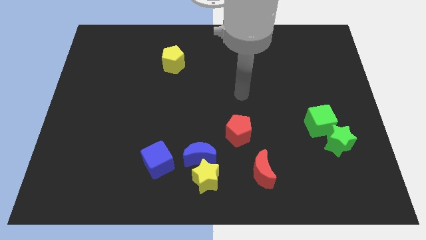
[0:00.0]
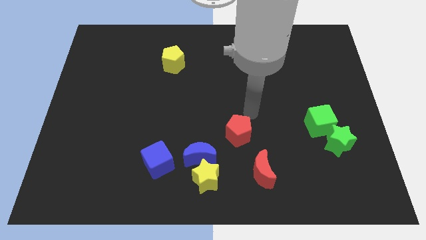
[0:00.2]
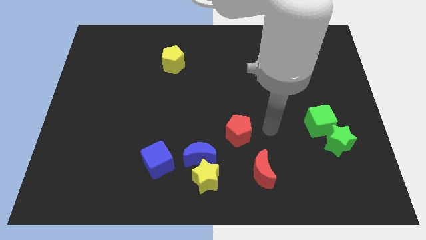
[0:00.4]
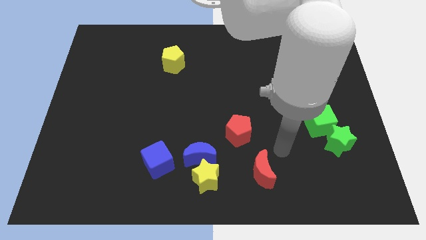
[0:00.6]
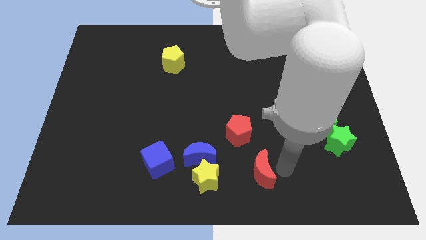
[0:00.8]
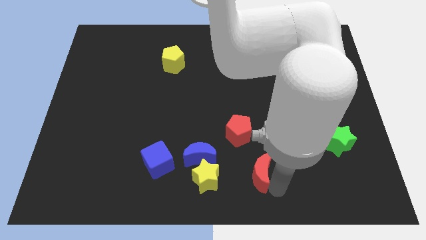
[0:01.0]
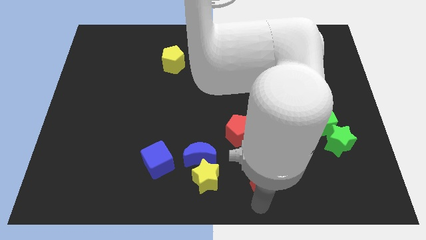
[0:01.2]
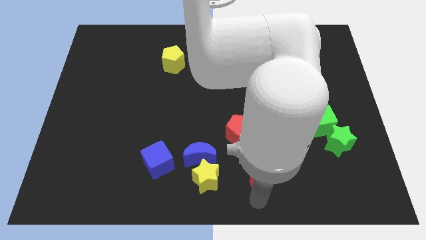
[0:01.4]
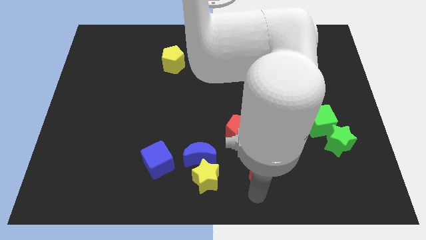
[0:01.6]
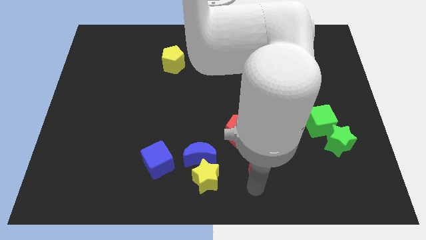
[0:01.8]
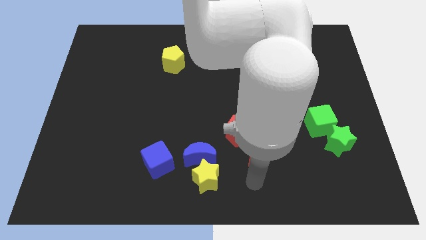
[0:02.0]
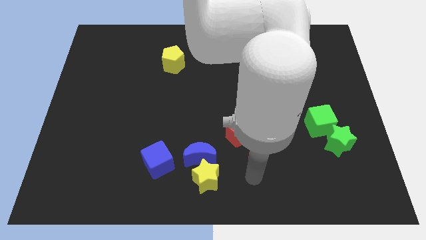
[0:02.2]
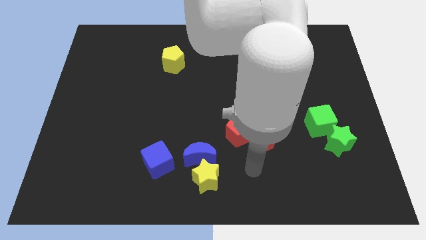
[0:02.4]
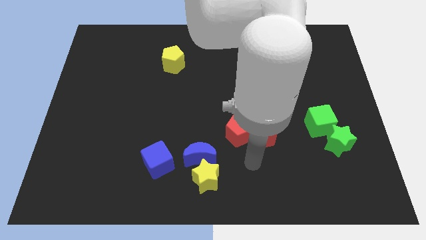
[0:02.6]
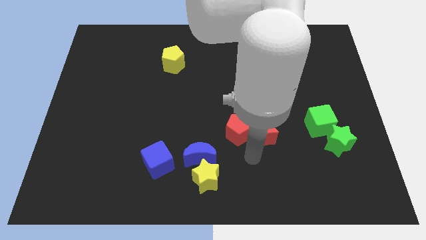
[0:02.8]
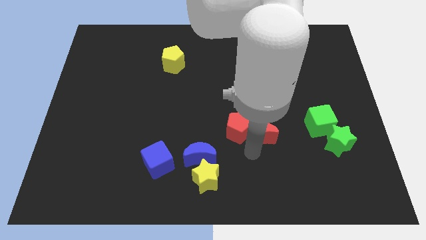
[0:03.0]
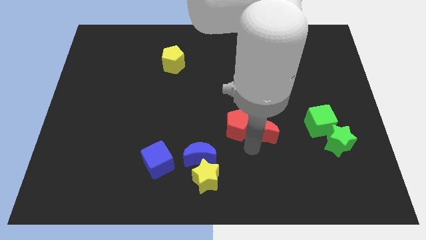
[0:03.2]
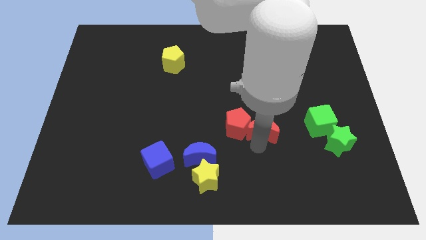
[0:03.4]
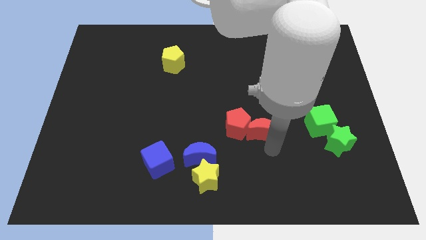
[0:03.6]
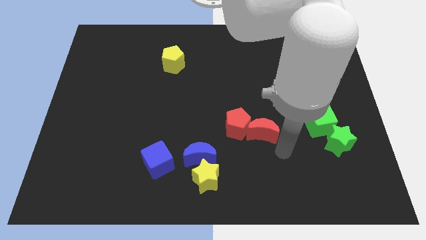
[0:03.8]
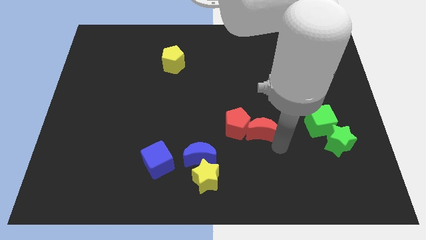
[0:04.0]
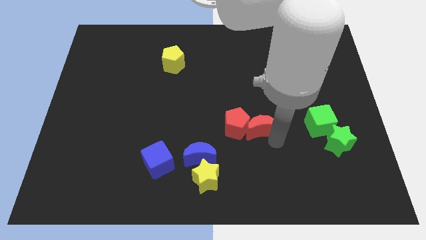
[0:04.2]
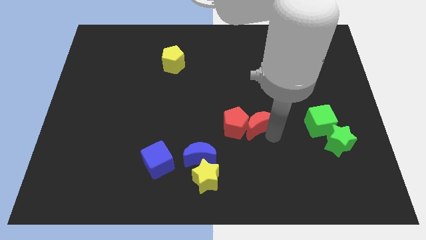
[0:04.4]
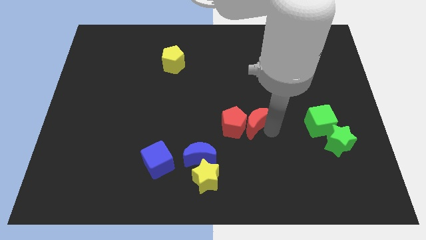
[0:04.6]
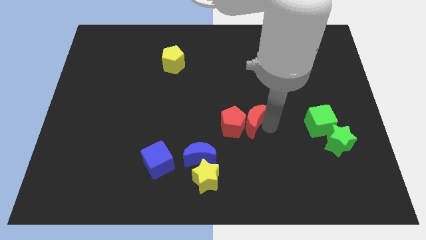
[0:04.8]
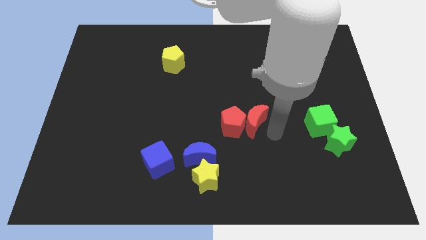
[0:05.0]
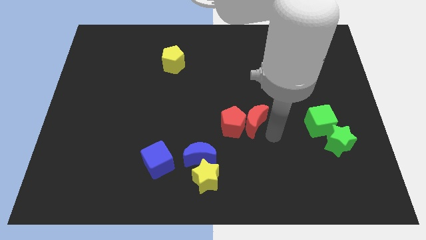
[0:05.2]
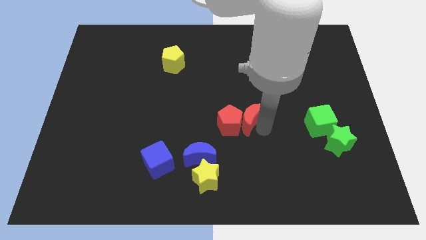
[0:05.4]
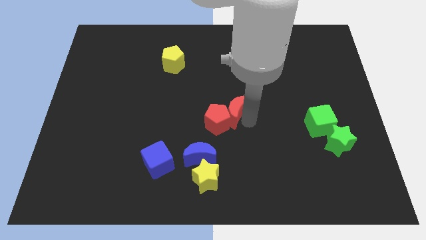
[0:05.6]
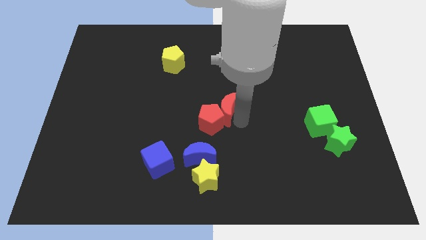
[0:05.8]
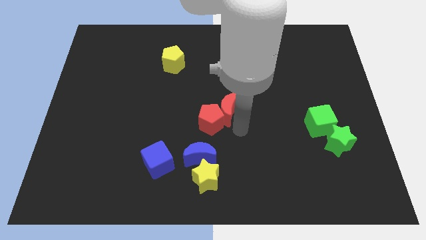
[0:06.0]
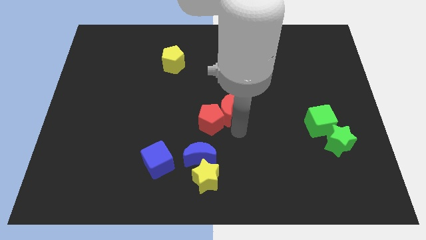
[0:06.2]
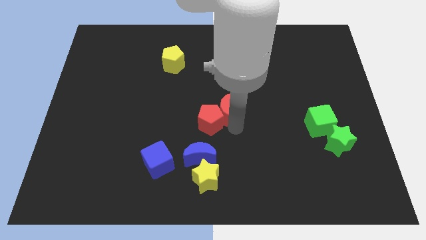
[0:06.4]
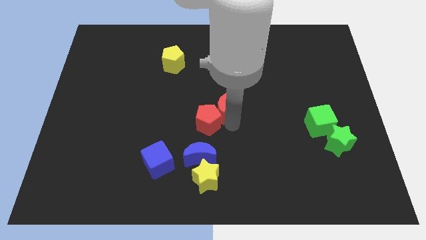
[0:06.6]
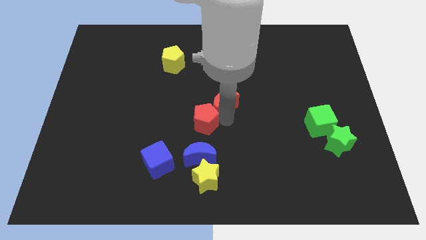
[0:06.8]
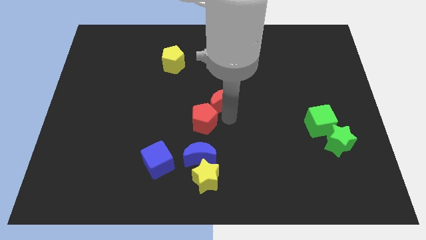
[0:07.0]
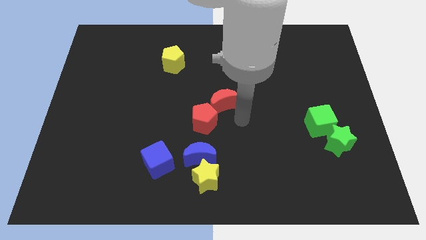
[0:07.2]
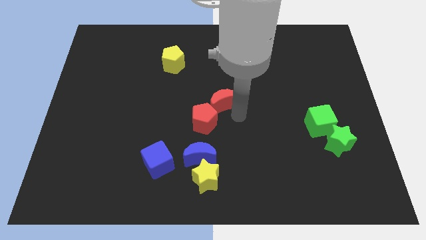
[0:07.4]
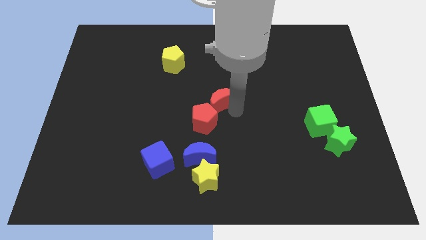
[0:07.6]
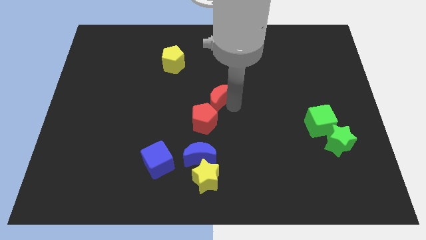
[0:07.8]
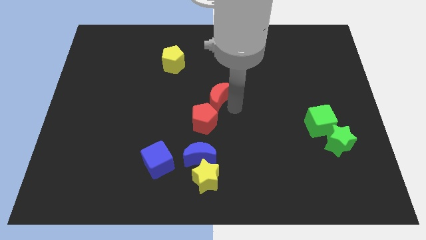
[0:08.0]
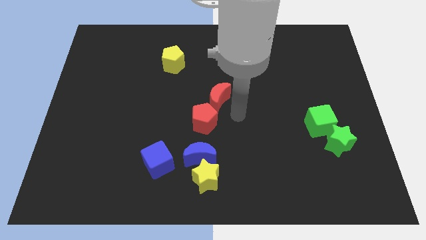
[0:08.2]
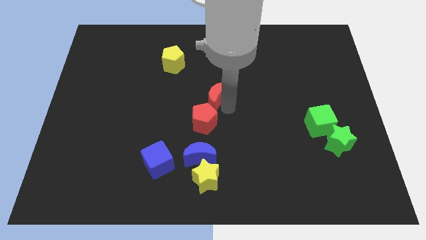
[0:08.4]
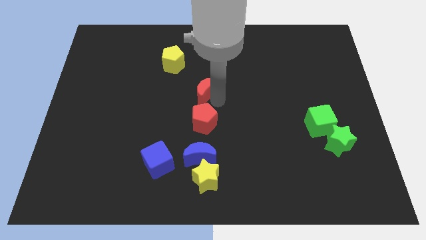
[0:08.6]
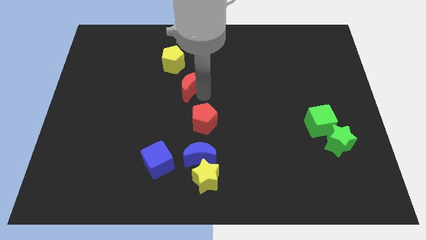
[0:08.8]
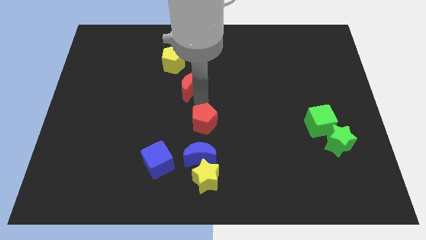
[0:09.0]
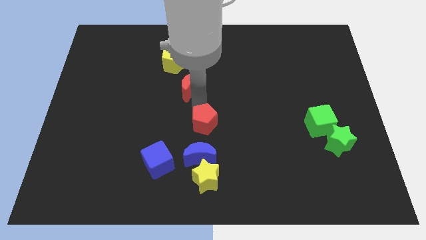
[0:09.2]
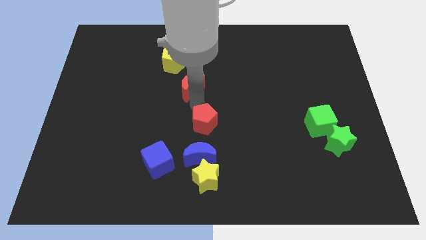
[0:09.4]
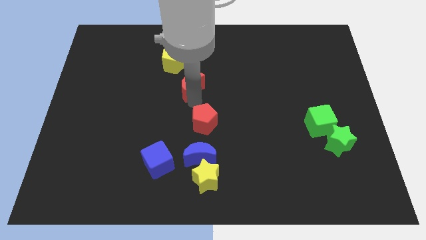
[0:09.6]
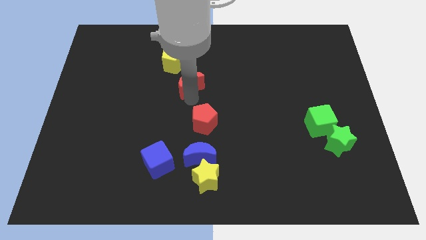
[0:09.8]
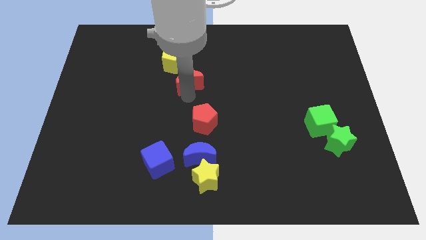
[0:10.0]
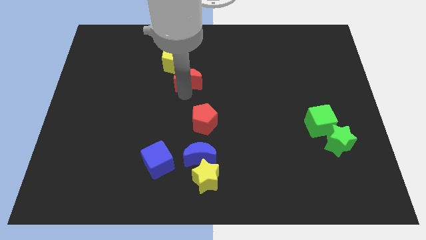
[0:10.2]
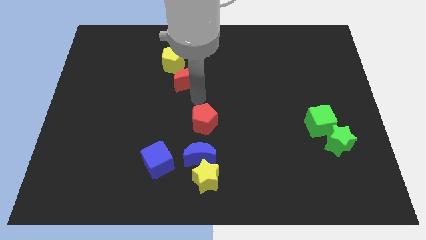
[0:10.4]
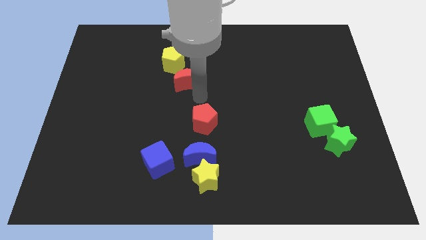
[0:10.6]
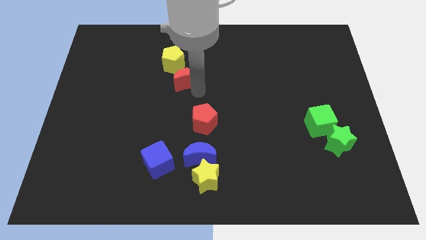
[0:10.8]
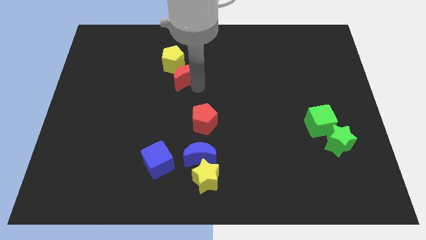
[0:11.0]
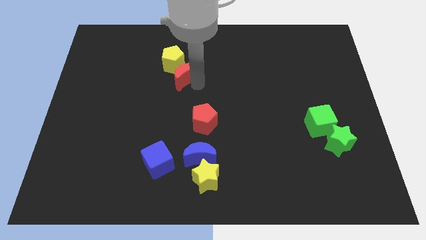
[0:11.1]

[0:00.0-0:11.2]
move the red moon close to the yellow pentagon

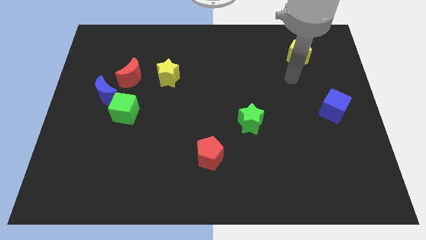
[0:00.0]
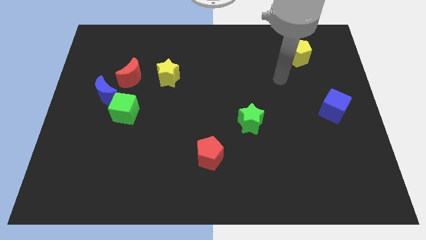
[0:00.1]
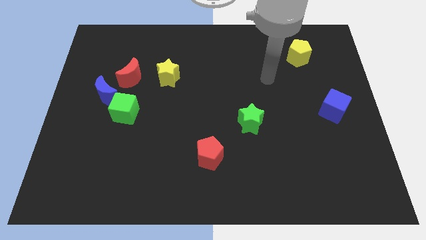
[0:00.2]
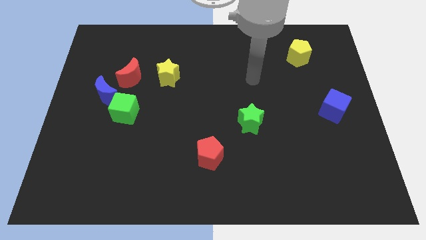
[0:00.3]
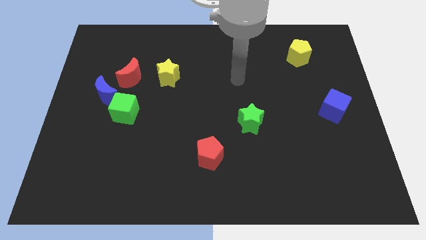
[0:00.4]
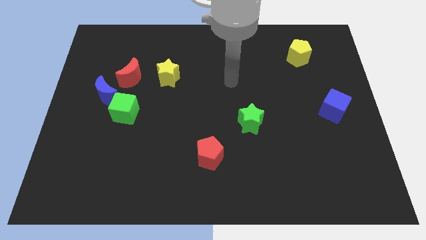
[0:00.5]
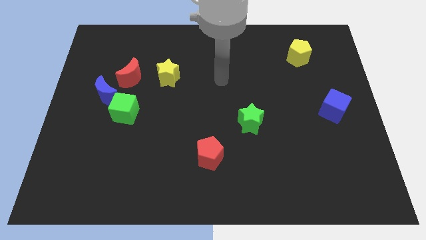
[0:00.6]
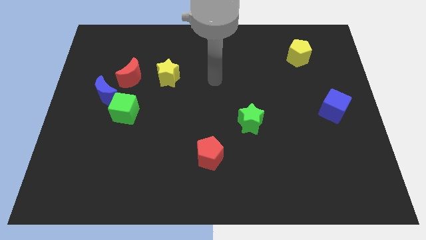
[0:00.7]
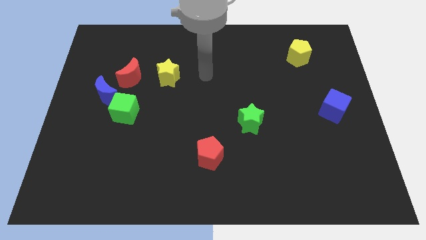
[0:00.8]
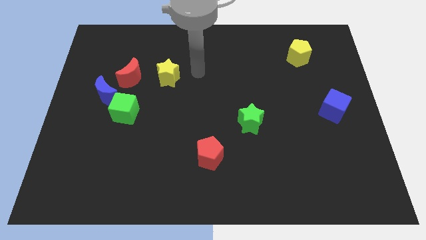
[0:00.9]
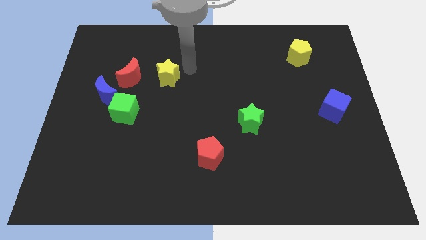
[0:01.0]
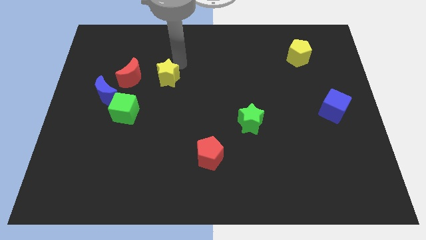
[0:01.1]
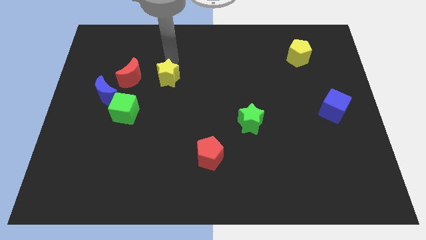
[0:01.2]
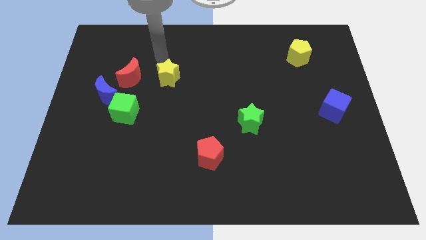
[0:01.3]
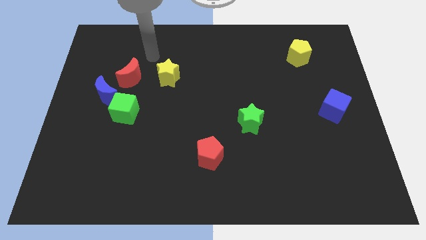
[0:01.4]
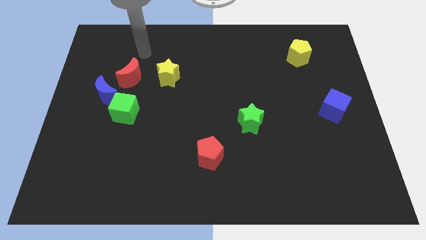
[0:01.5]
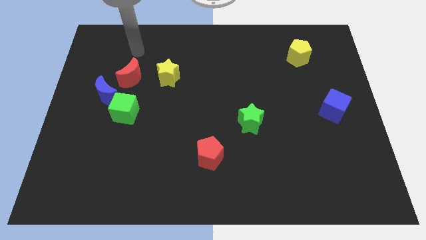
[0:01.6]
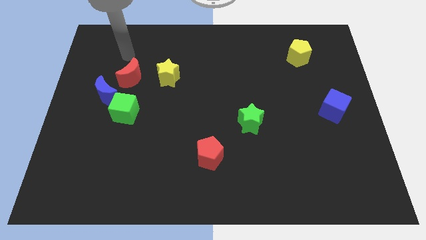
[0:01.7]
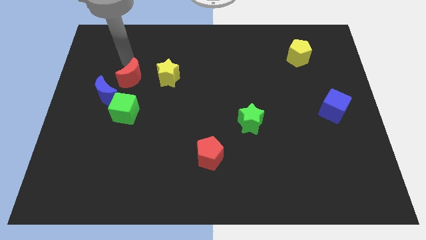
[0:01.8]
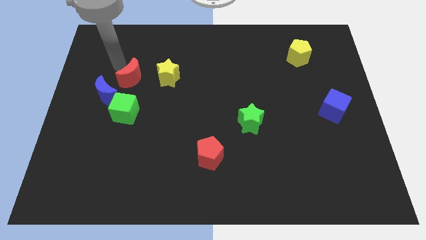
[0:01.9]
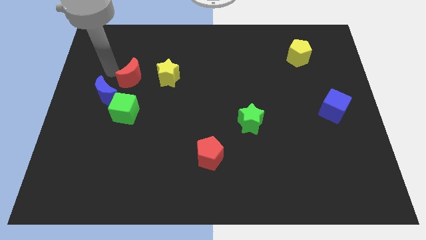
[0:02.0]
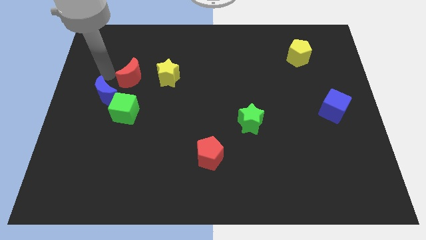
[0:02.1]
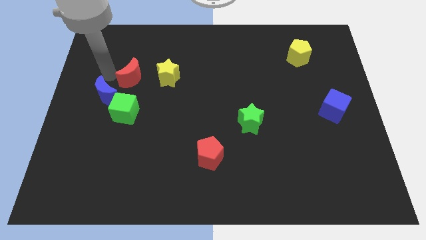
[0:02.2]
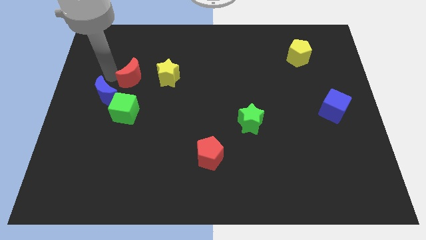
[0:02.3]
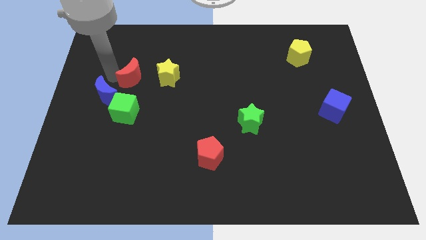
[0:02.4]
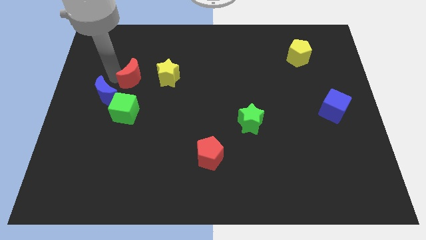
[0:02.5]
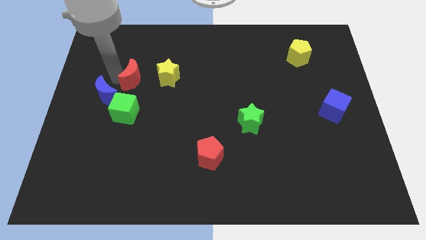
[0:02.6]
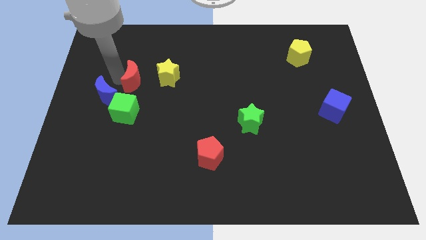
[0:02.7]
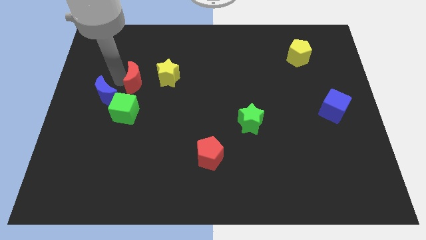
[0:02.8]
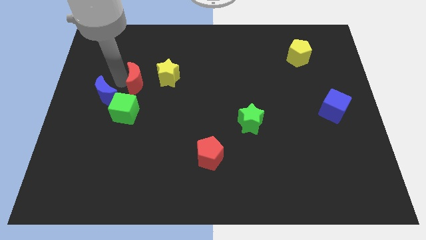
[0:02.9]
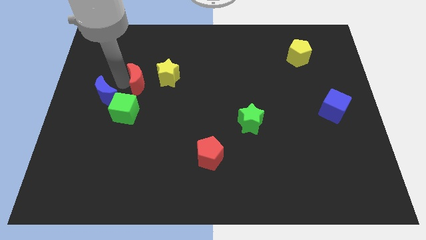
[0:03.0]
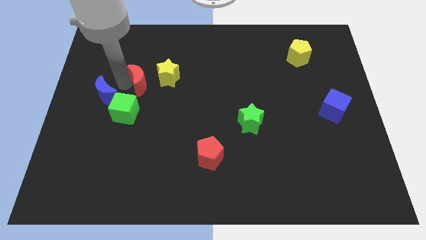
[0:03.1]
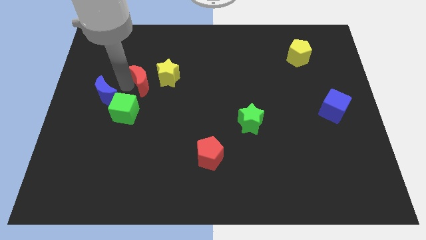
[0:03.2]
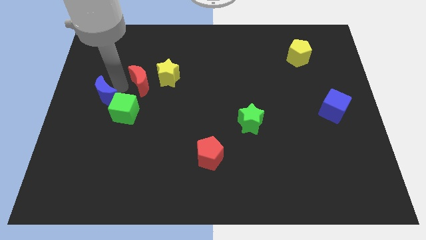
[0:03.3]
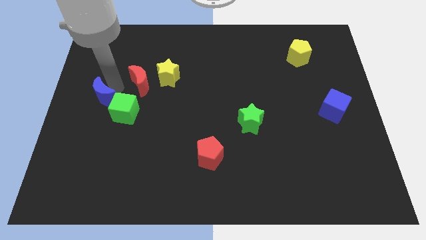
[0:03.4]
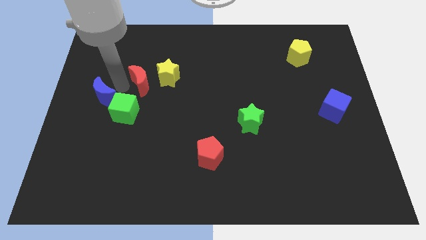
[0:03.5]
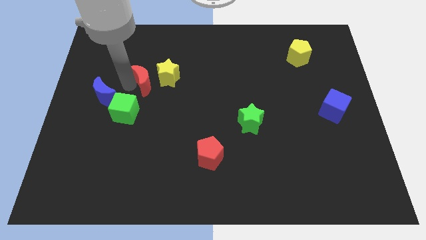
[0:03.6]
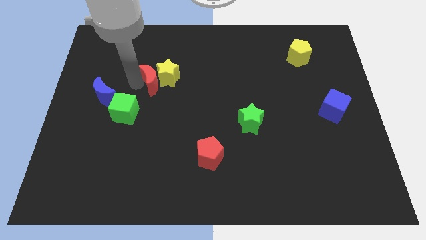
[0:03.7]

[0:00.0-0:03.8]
push the red moon close to the yellow star
